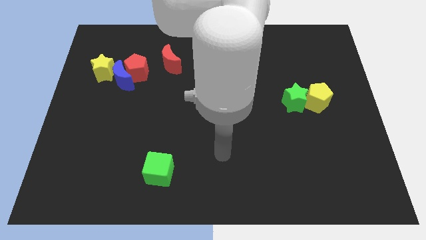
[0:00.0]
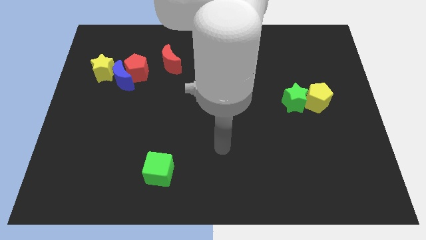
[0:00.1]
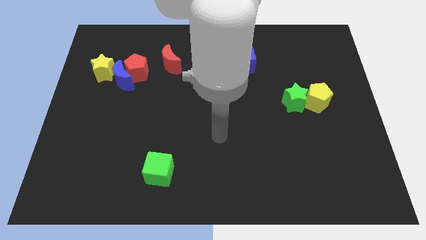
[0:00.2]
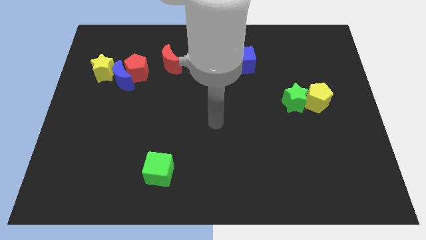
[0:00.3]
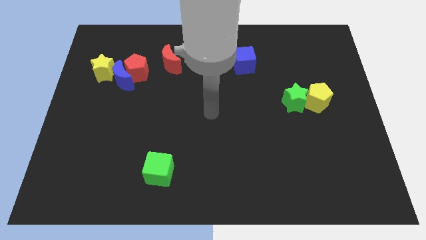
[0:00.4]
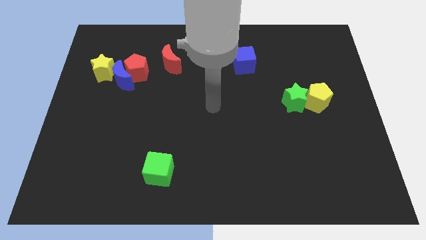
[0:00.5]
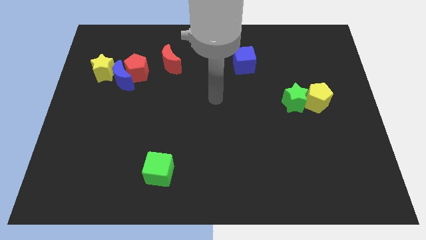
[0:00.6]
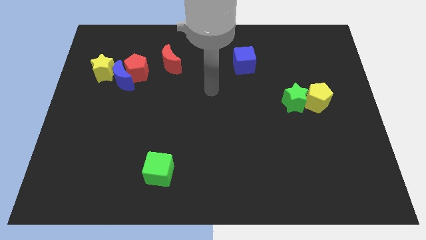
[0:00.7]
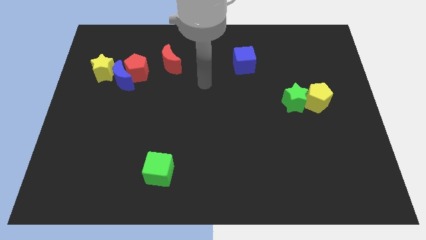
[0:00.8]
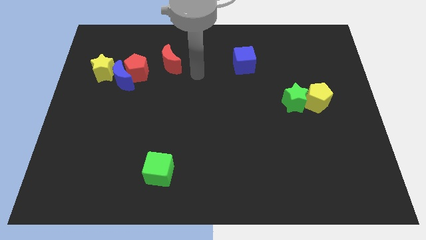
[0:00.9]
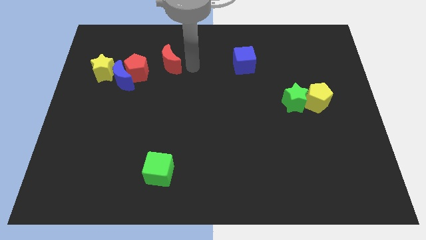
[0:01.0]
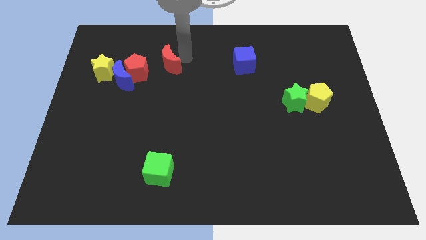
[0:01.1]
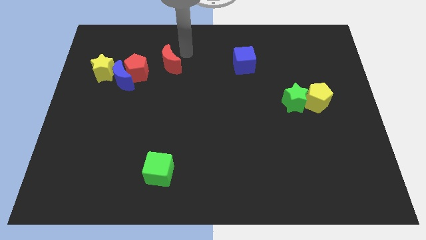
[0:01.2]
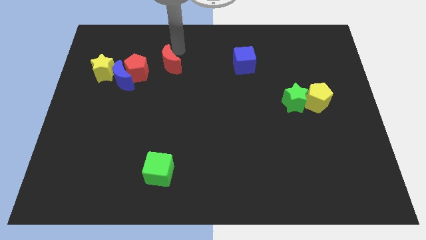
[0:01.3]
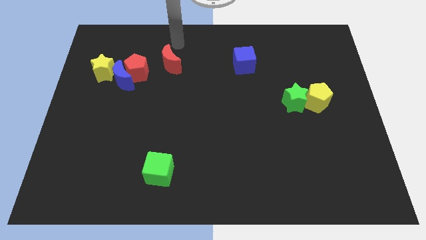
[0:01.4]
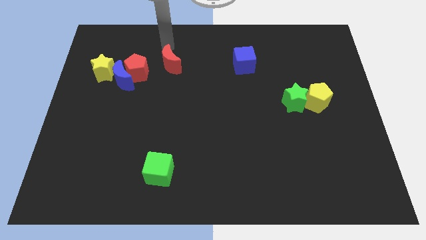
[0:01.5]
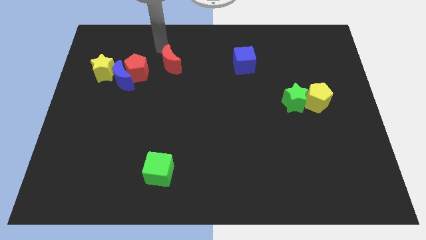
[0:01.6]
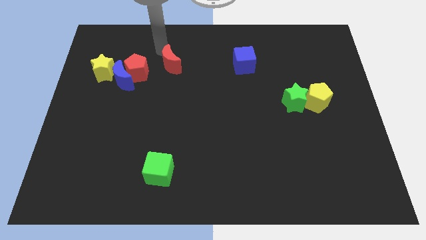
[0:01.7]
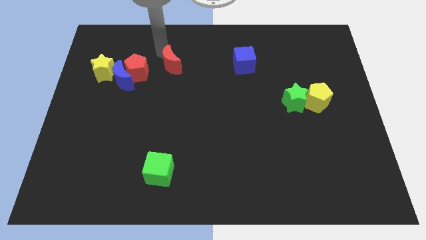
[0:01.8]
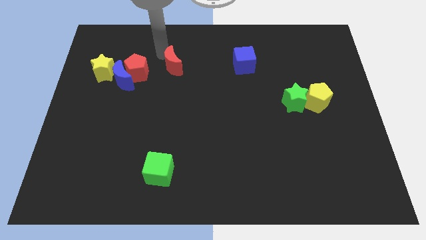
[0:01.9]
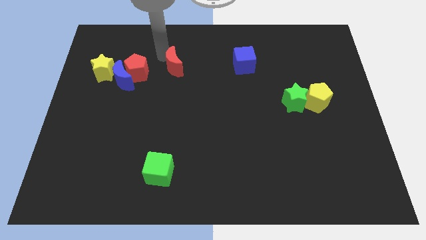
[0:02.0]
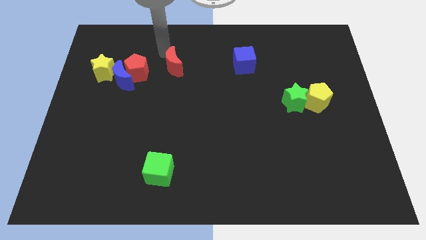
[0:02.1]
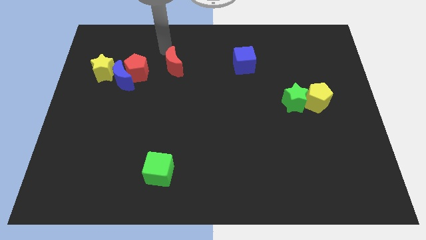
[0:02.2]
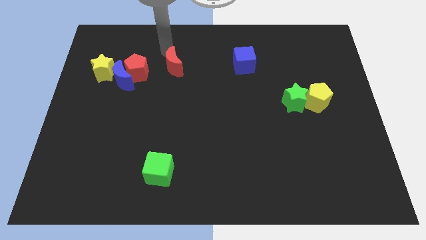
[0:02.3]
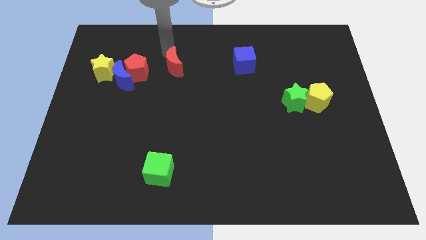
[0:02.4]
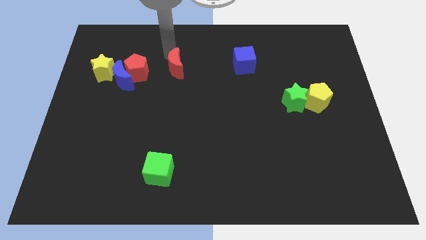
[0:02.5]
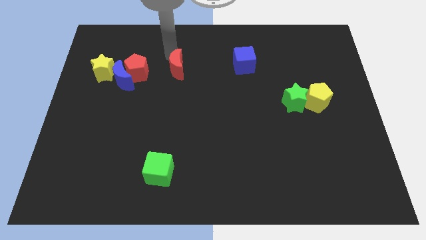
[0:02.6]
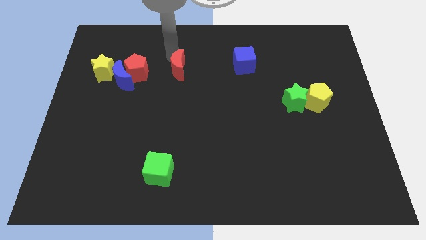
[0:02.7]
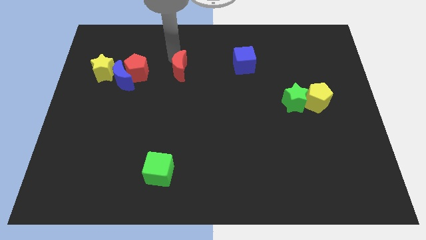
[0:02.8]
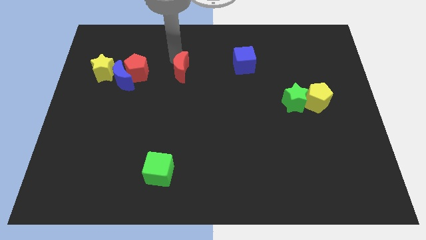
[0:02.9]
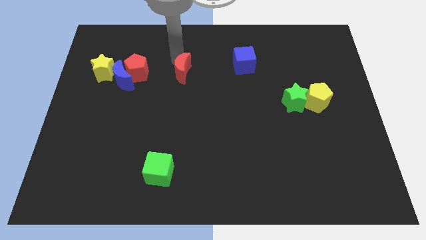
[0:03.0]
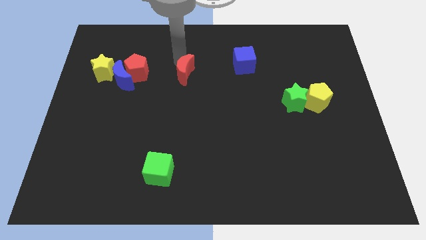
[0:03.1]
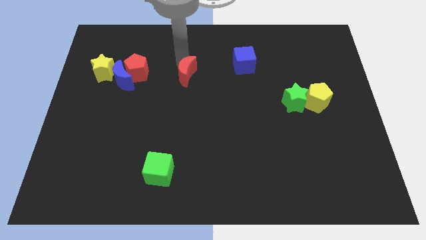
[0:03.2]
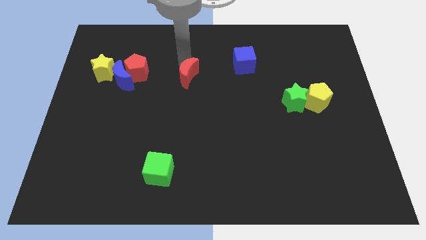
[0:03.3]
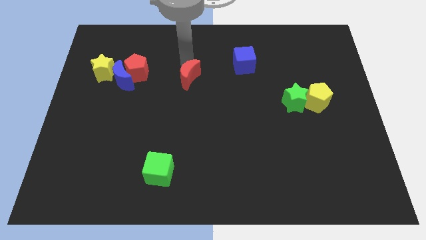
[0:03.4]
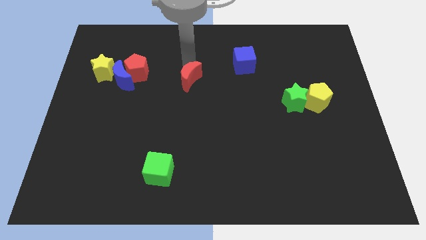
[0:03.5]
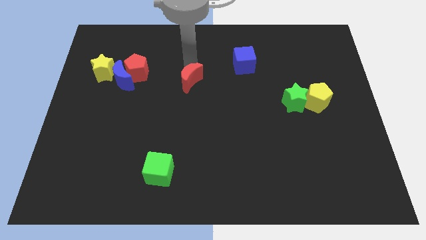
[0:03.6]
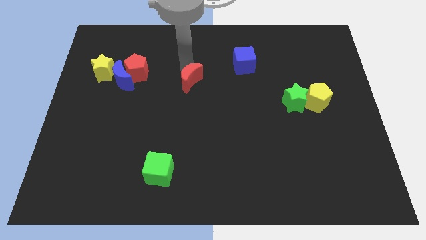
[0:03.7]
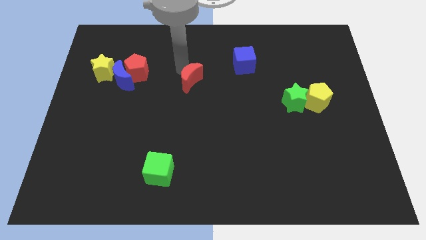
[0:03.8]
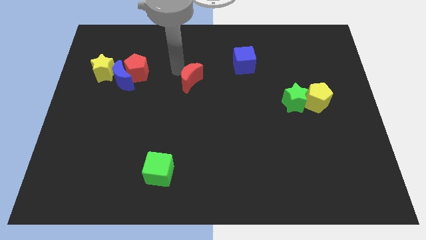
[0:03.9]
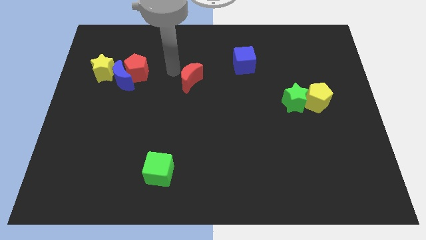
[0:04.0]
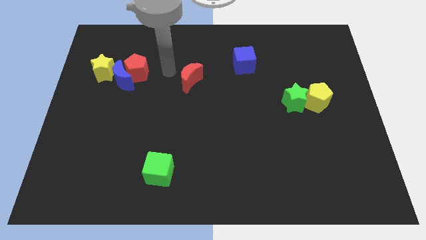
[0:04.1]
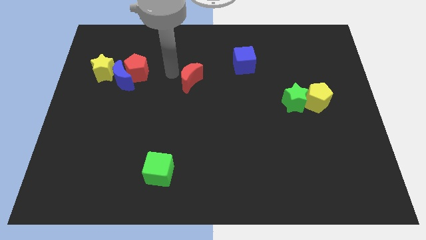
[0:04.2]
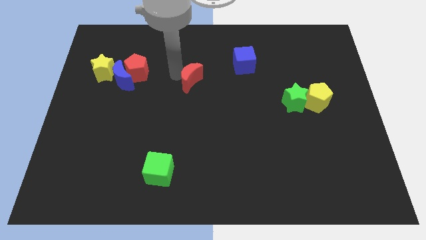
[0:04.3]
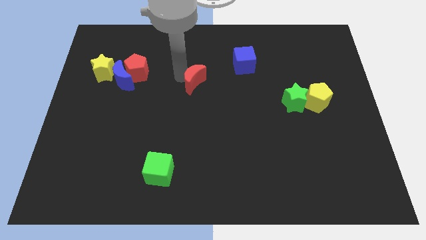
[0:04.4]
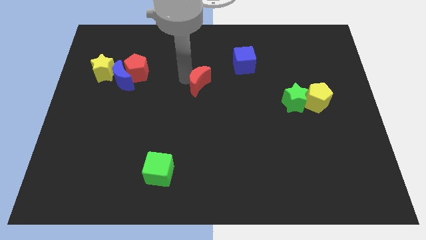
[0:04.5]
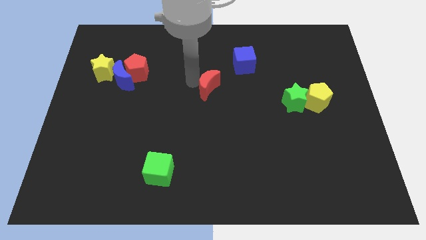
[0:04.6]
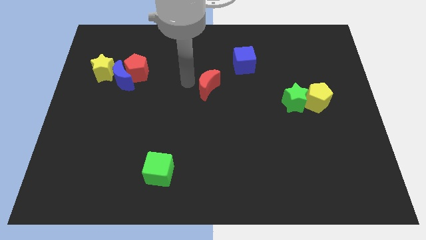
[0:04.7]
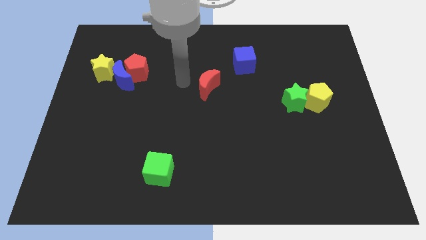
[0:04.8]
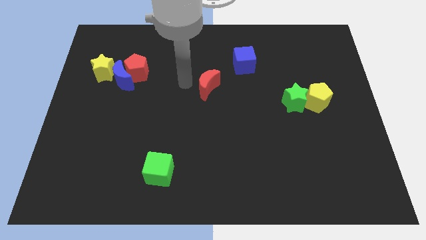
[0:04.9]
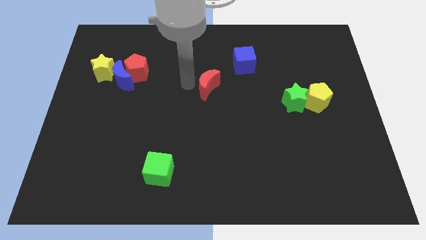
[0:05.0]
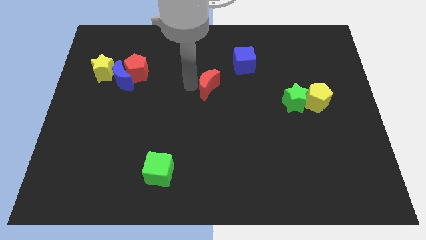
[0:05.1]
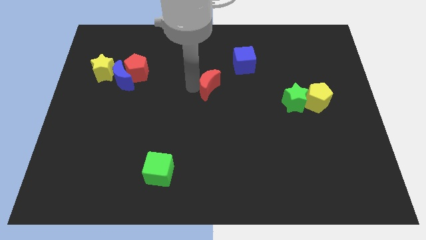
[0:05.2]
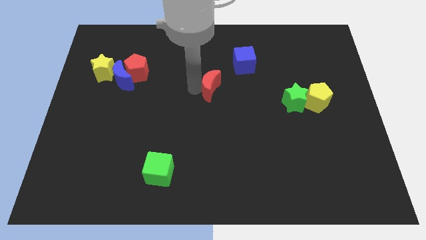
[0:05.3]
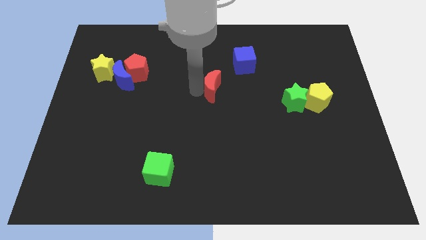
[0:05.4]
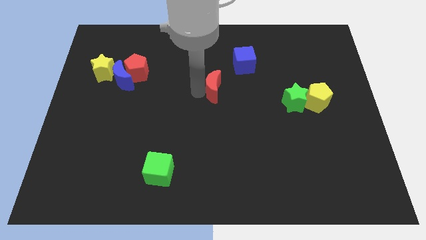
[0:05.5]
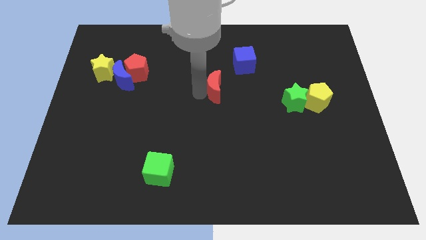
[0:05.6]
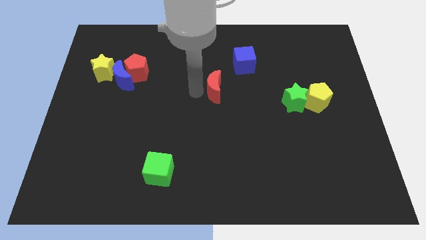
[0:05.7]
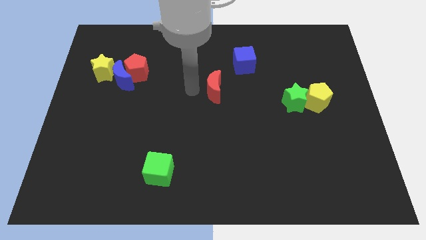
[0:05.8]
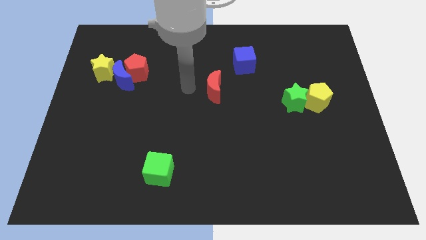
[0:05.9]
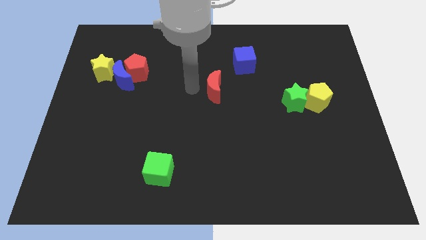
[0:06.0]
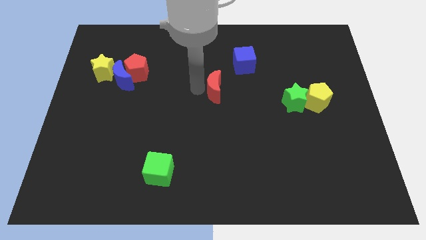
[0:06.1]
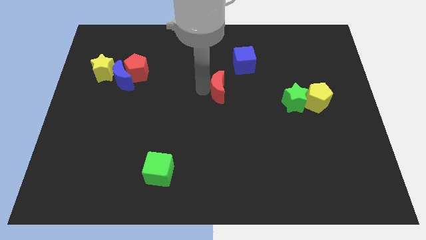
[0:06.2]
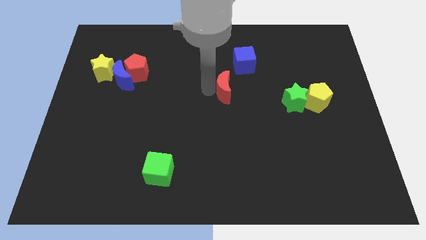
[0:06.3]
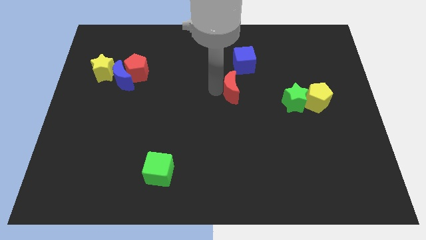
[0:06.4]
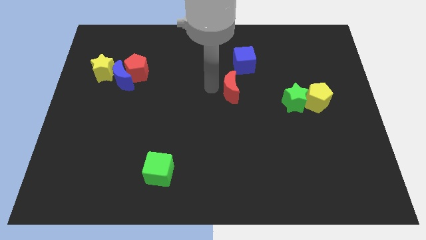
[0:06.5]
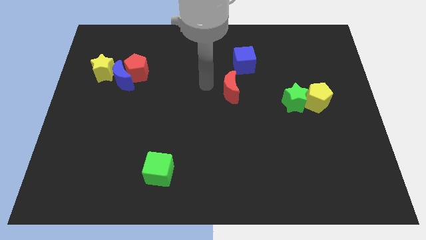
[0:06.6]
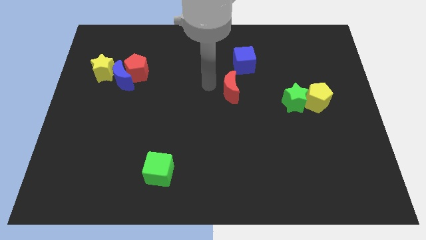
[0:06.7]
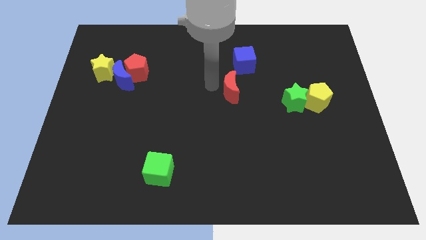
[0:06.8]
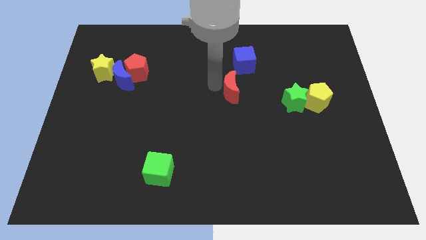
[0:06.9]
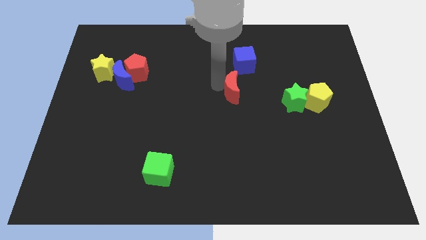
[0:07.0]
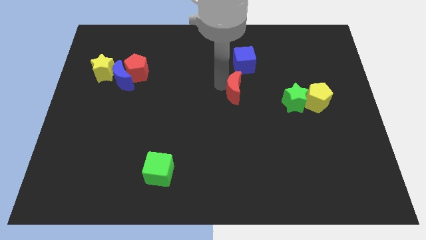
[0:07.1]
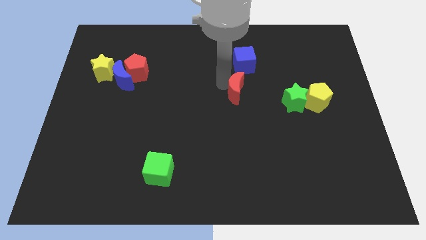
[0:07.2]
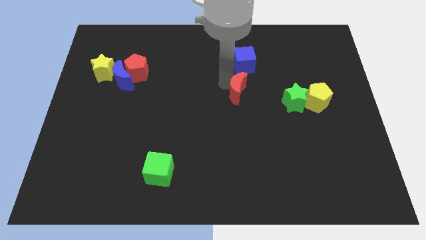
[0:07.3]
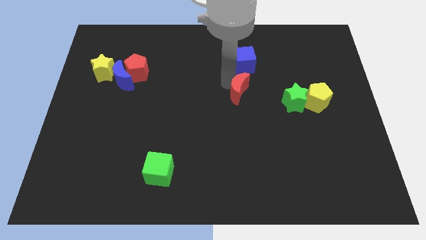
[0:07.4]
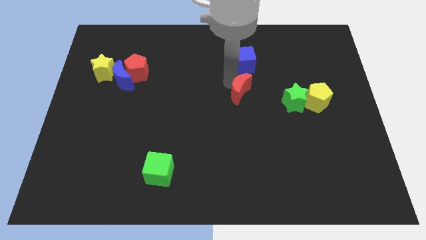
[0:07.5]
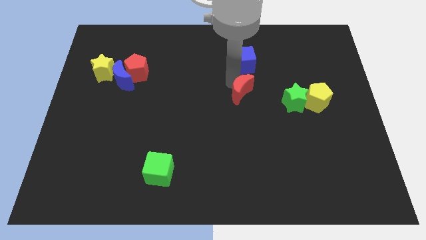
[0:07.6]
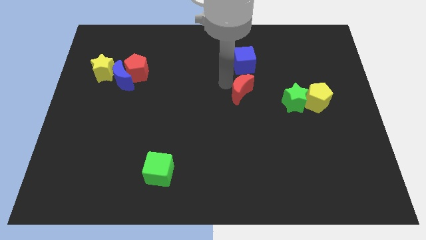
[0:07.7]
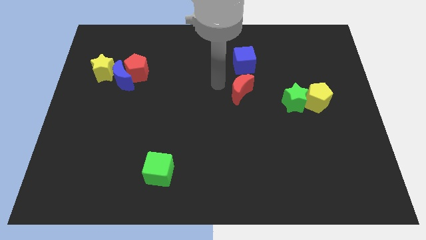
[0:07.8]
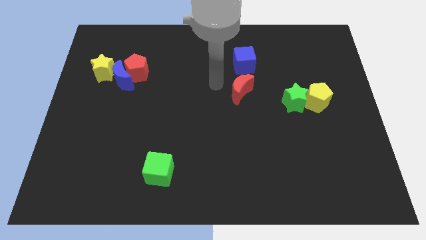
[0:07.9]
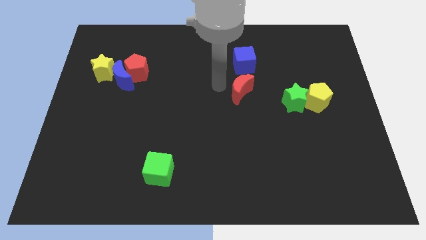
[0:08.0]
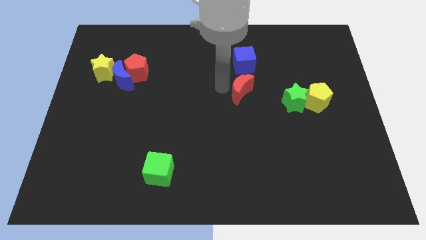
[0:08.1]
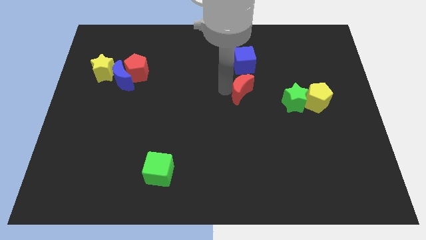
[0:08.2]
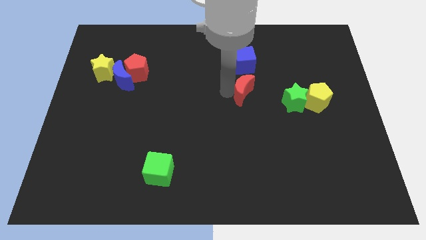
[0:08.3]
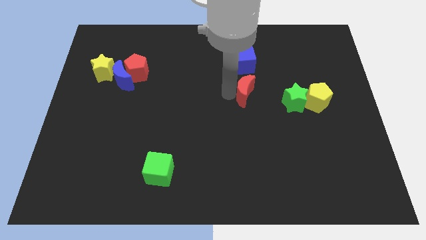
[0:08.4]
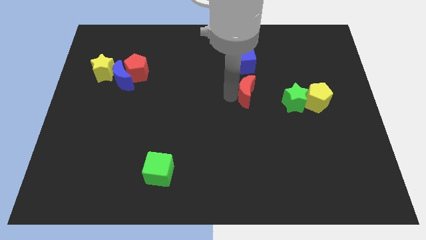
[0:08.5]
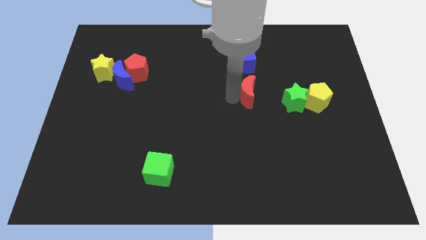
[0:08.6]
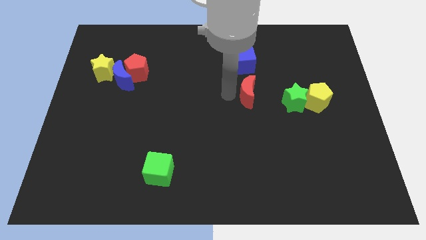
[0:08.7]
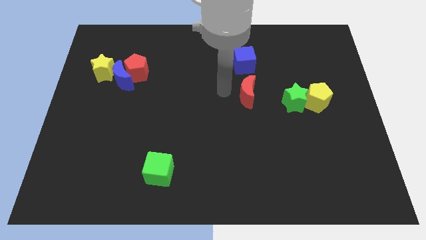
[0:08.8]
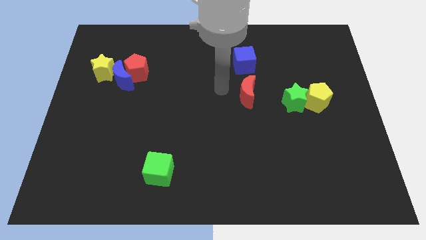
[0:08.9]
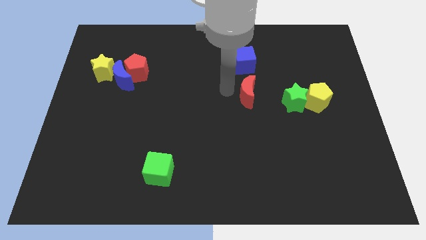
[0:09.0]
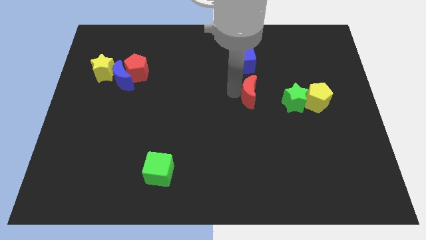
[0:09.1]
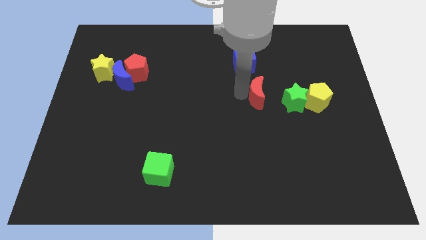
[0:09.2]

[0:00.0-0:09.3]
push the red moon left of the yellow pentagon
